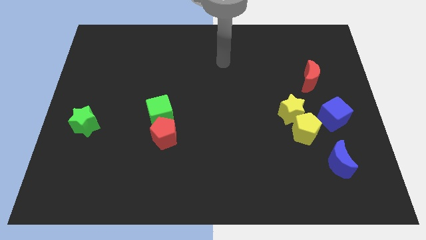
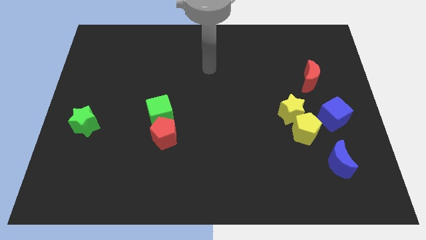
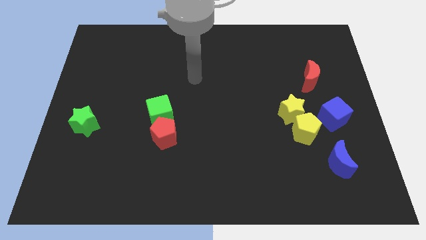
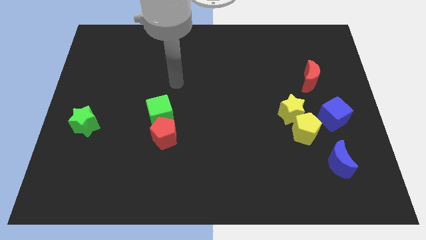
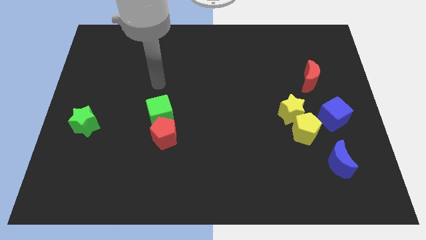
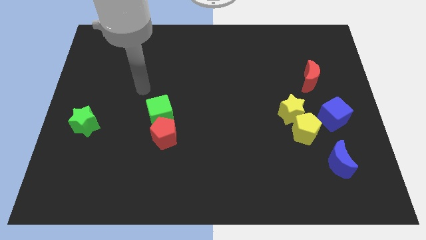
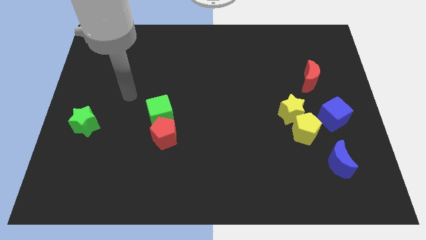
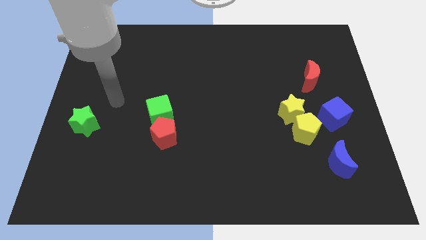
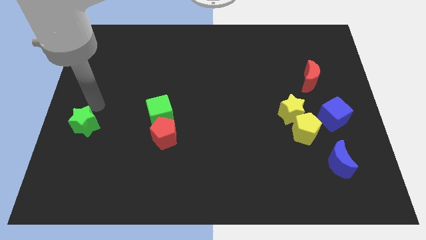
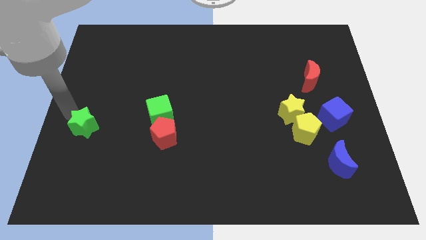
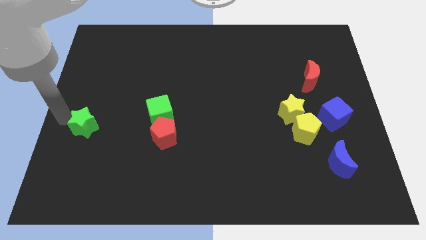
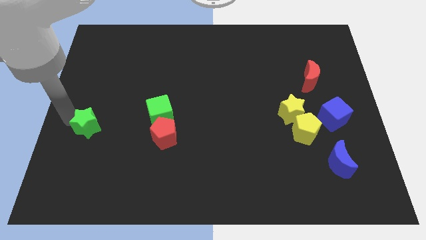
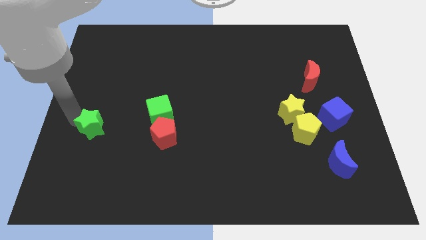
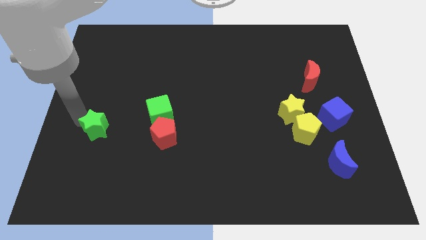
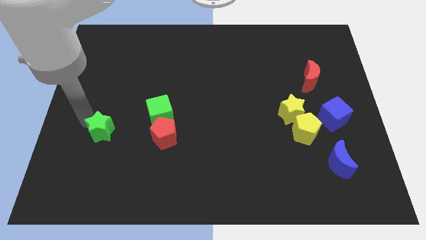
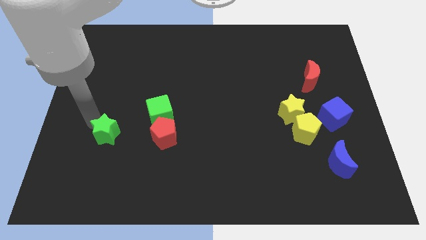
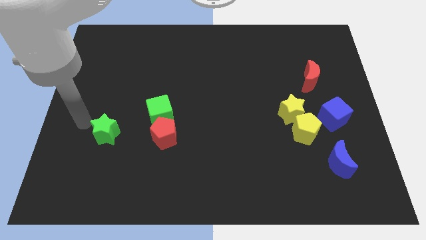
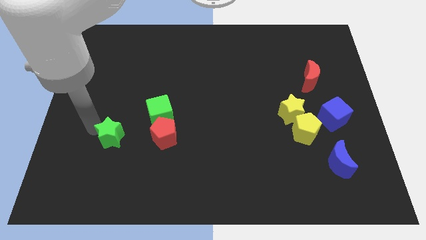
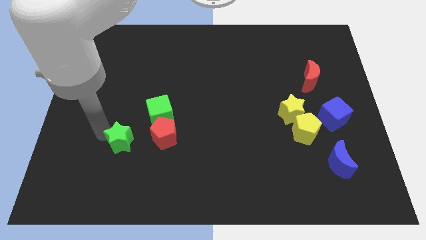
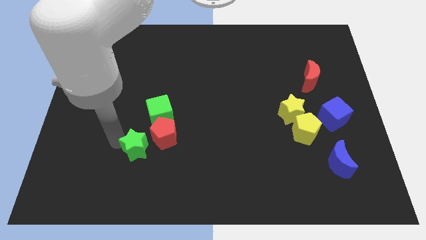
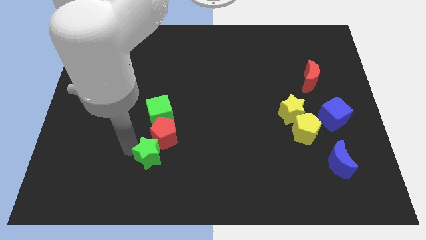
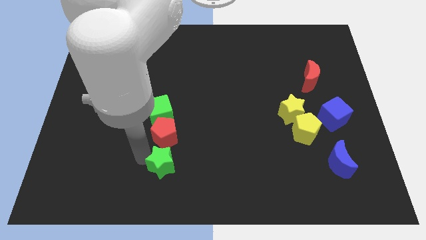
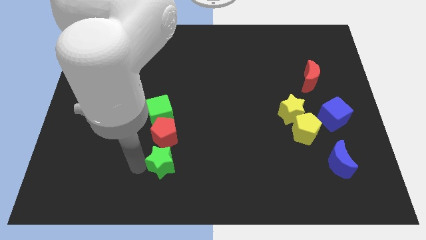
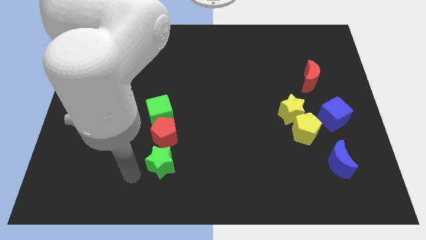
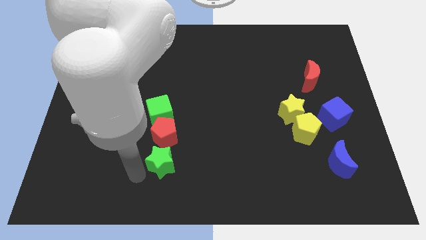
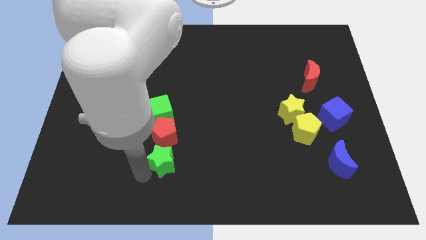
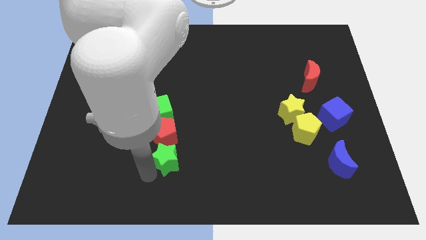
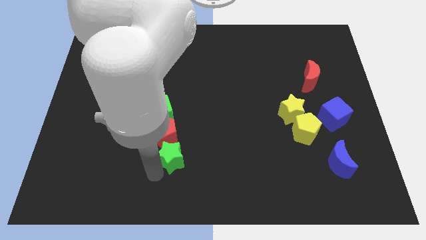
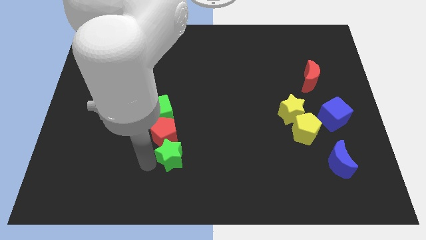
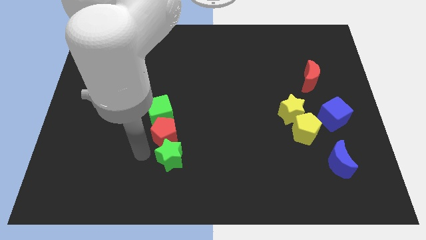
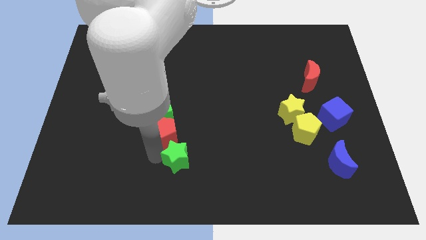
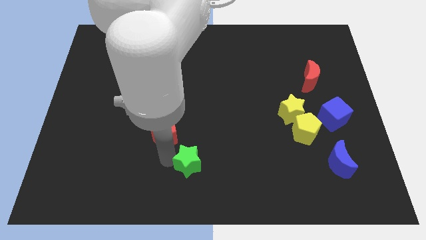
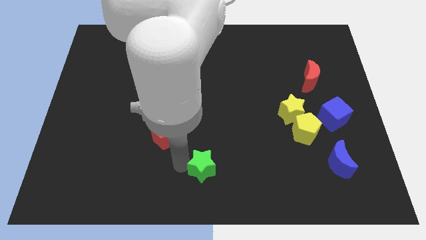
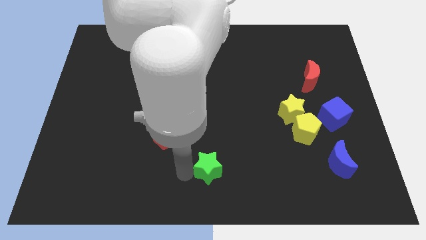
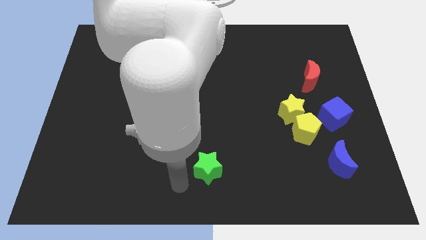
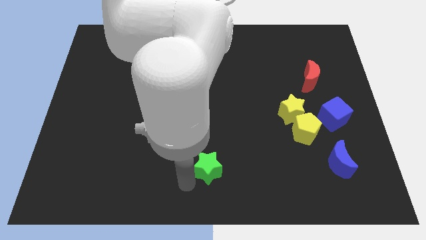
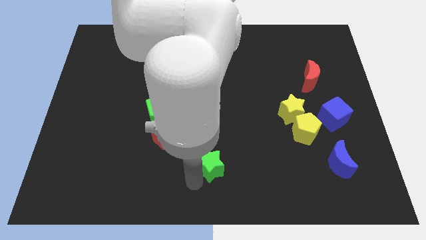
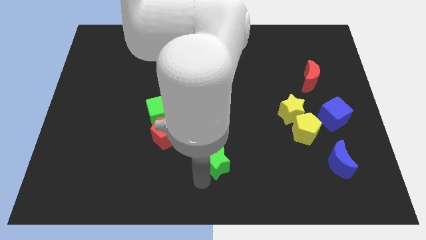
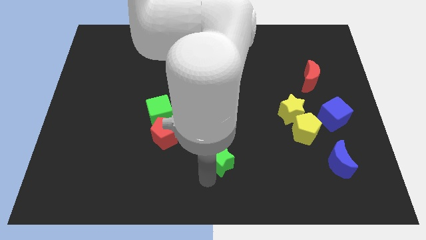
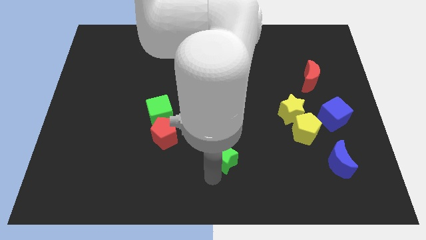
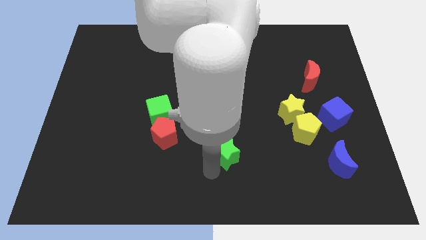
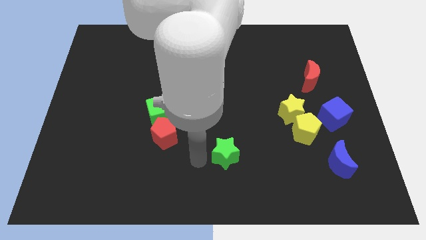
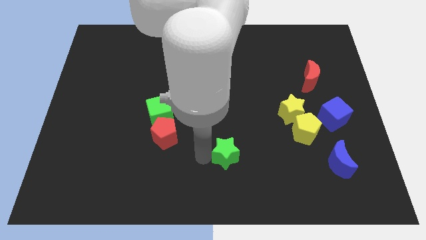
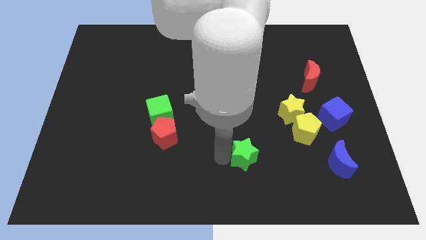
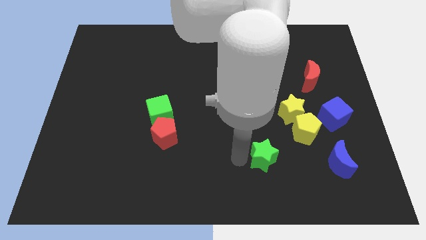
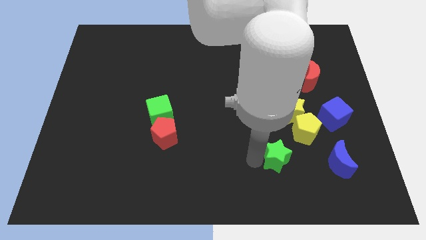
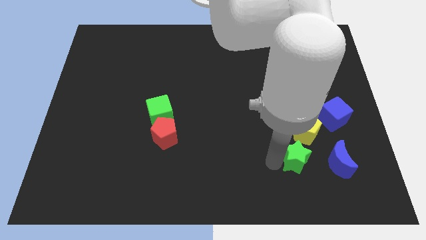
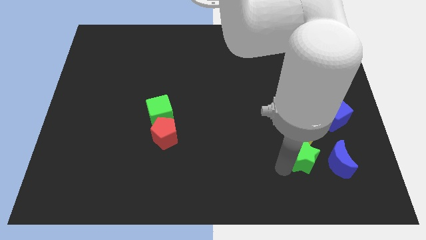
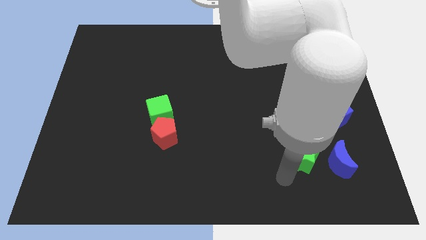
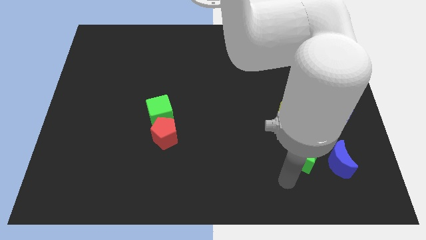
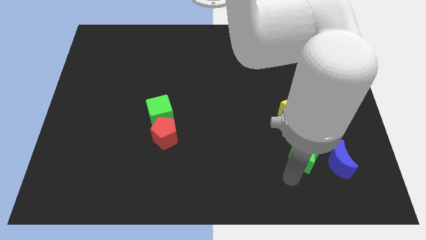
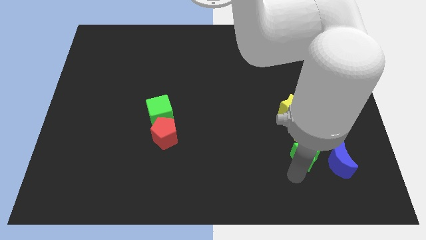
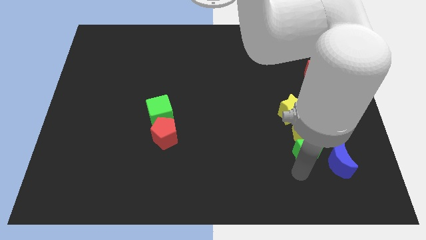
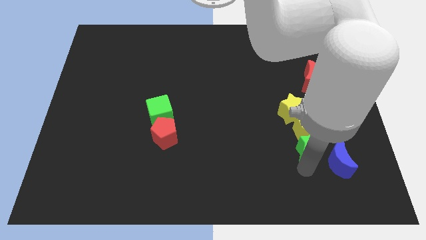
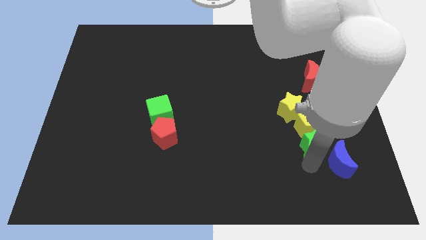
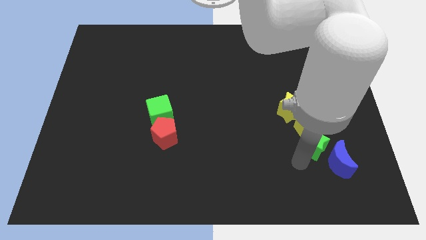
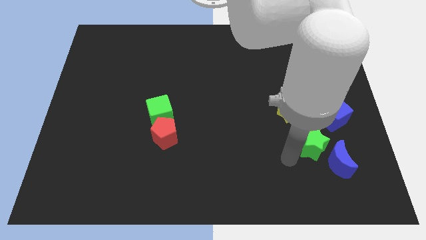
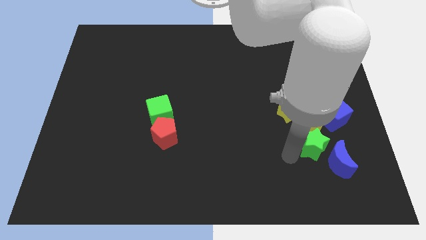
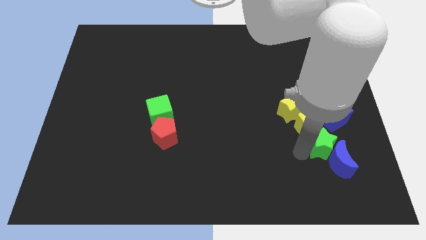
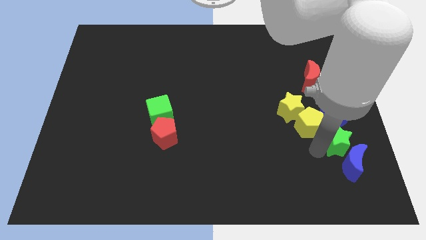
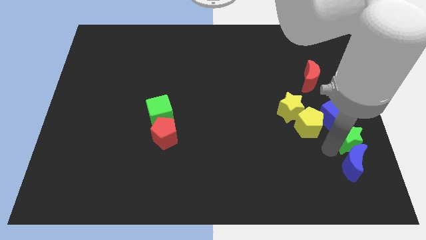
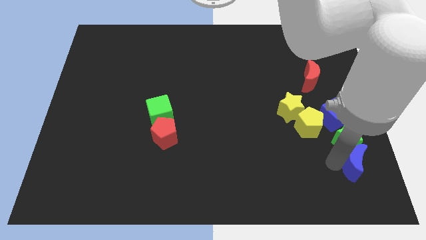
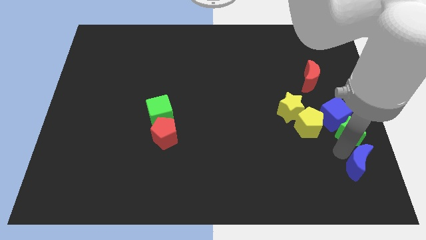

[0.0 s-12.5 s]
slide the green star to the right side of the board

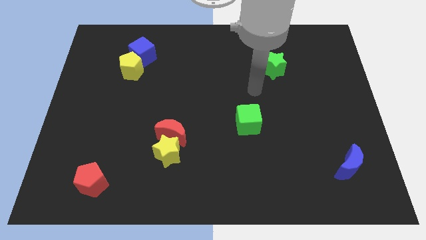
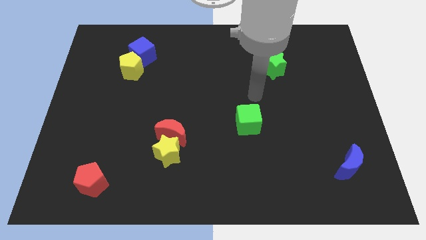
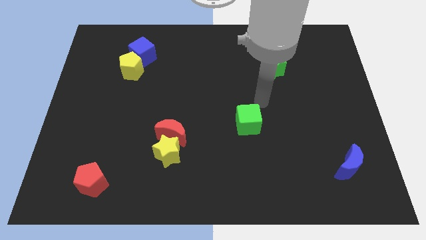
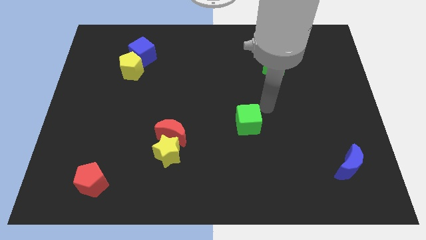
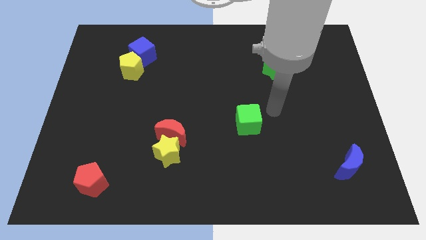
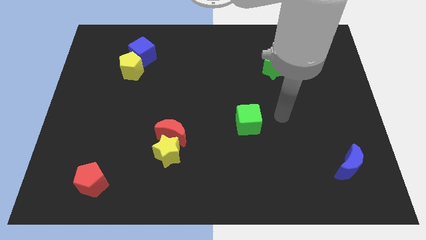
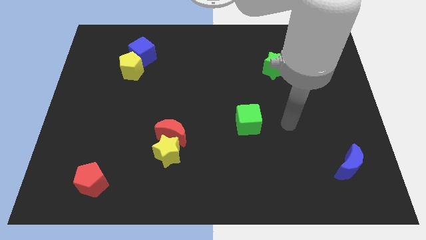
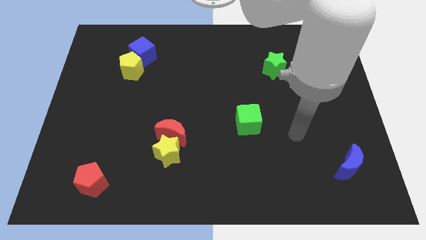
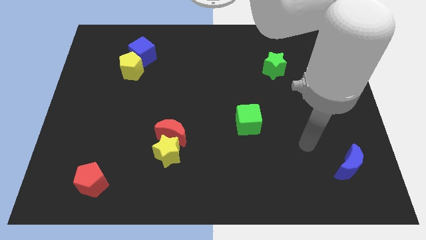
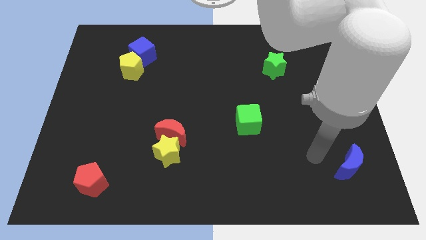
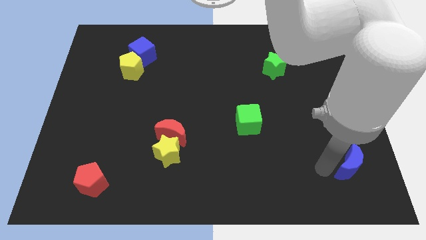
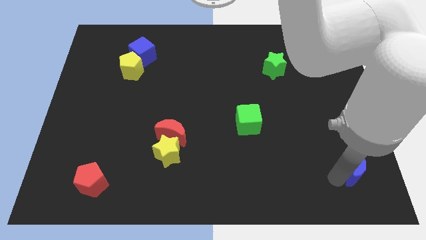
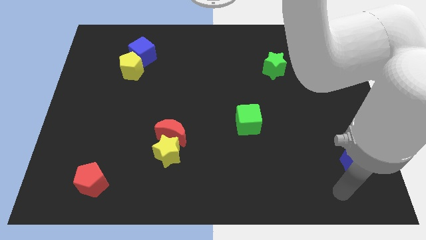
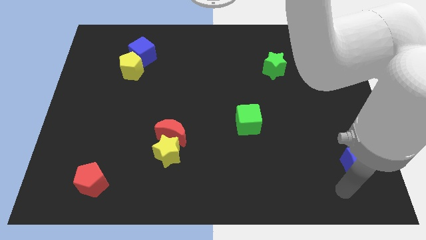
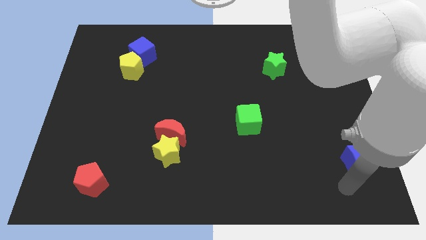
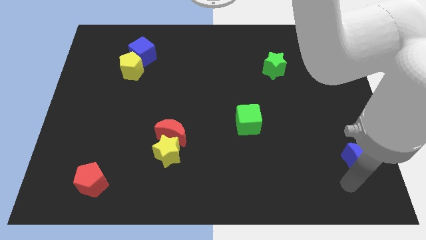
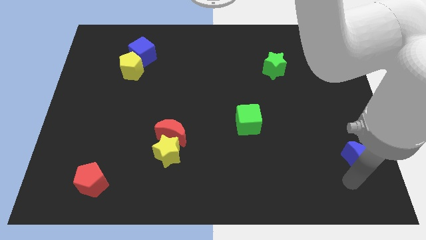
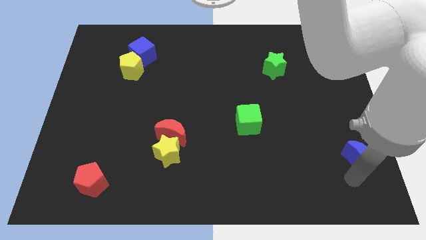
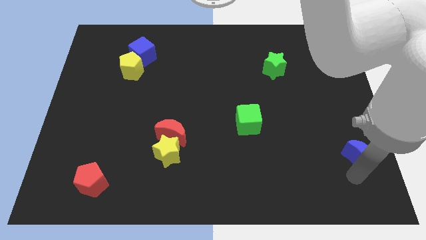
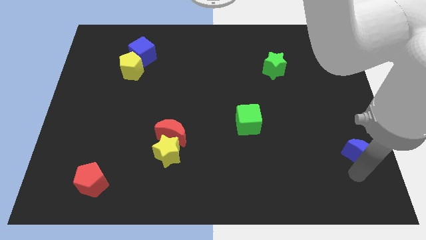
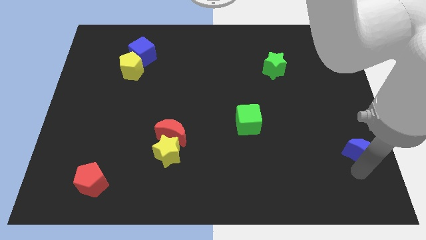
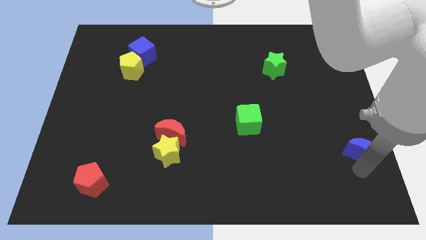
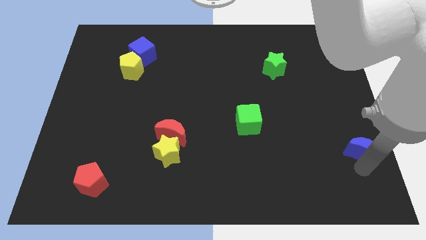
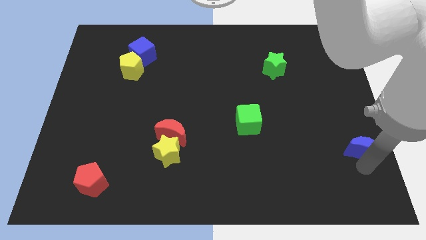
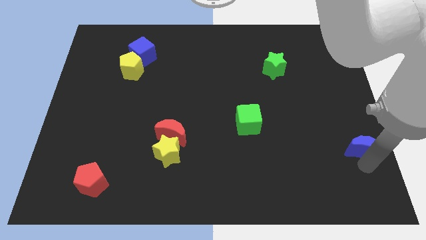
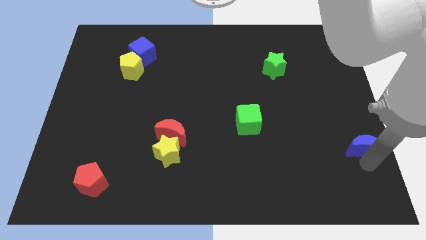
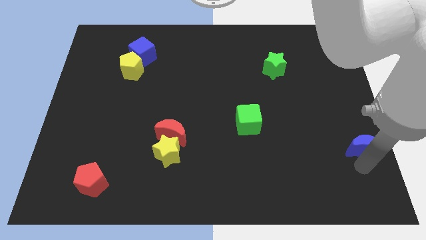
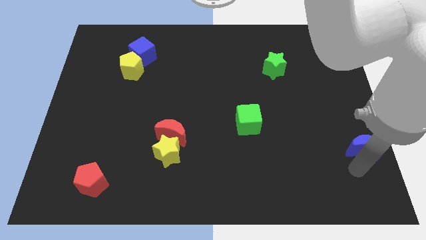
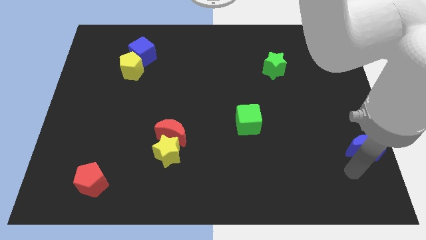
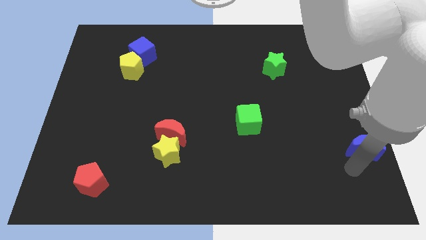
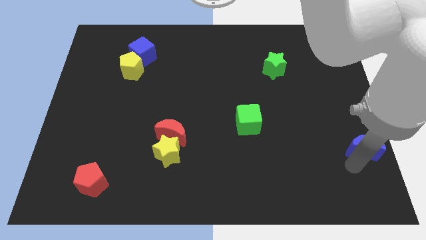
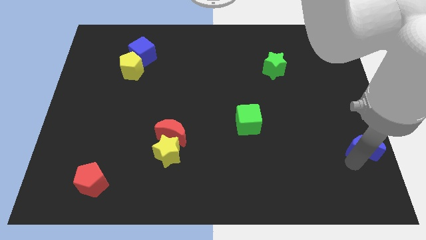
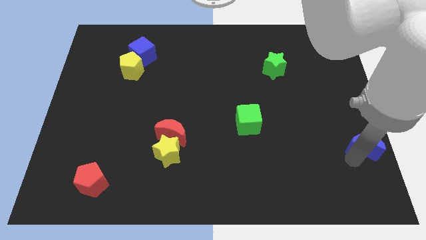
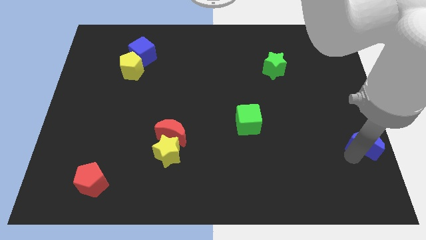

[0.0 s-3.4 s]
slide the blue moon to the right side
